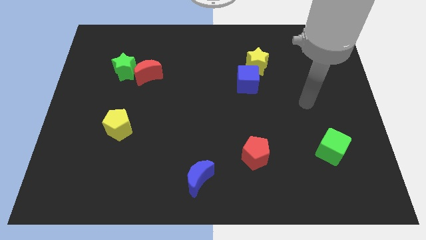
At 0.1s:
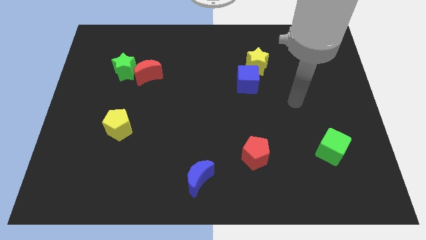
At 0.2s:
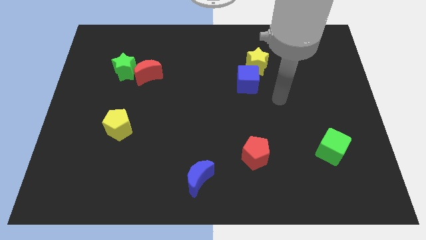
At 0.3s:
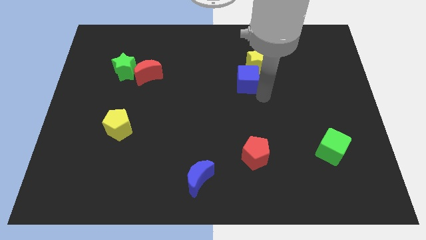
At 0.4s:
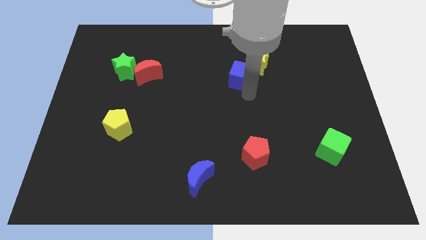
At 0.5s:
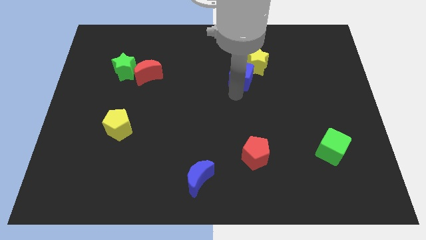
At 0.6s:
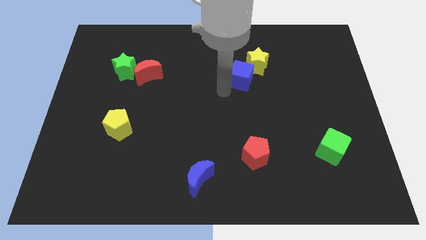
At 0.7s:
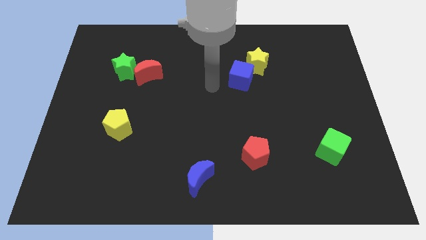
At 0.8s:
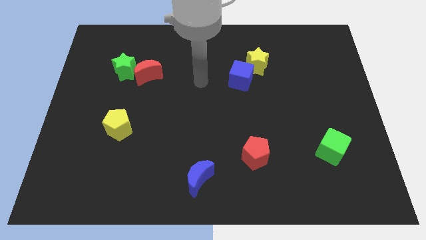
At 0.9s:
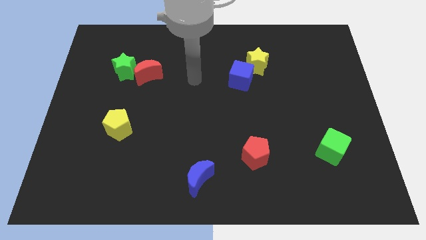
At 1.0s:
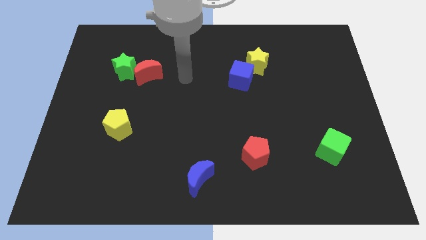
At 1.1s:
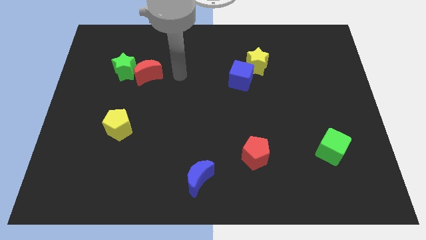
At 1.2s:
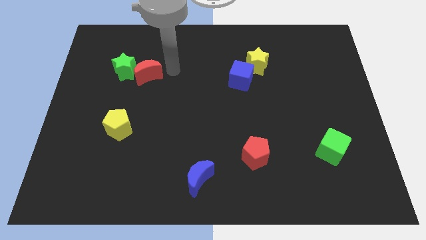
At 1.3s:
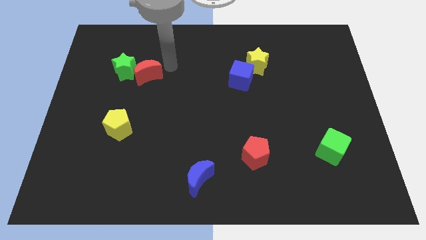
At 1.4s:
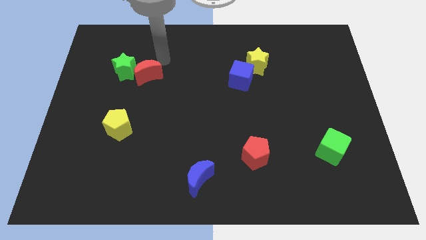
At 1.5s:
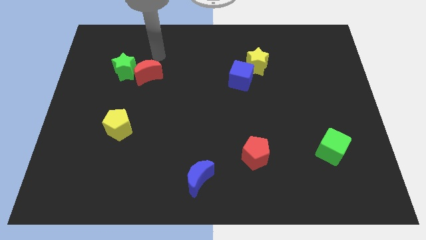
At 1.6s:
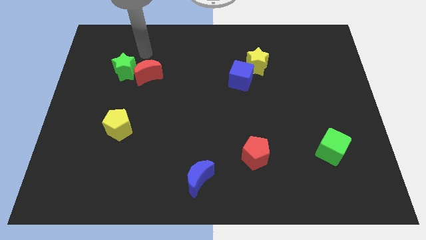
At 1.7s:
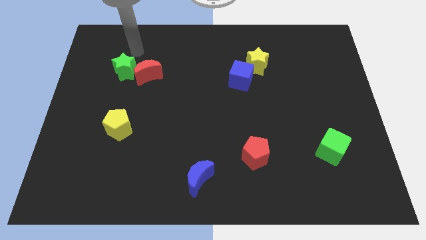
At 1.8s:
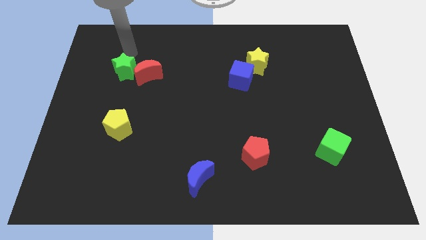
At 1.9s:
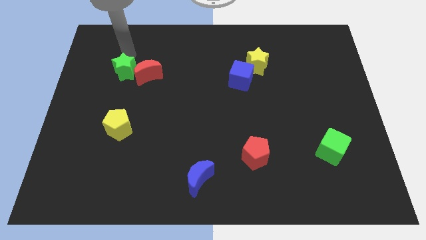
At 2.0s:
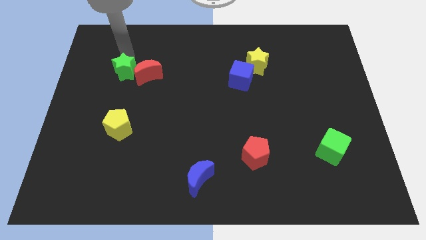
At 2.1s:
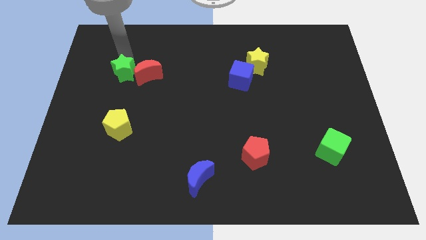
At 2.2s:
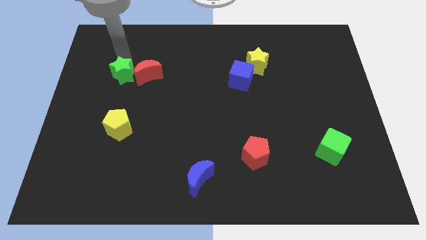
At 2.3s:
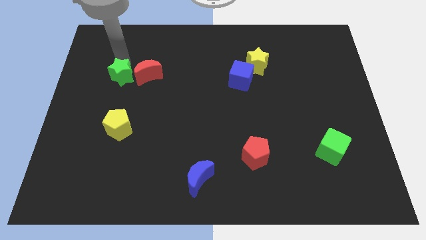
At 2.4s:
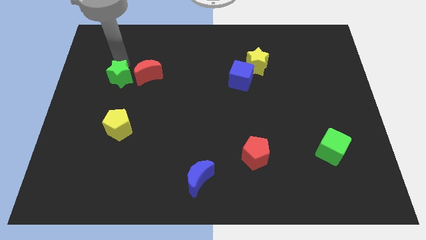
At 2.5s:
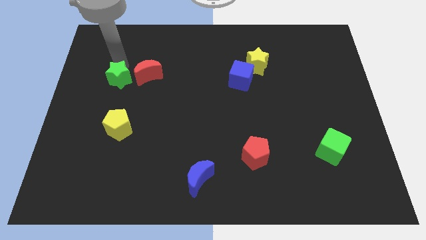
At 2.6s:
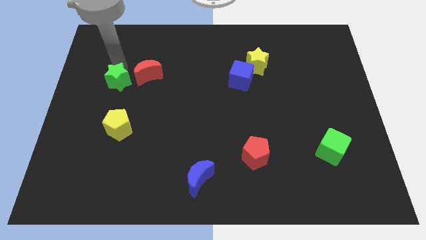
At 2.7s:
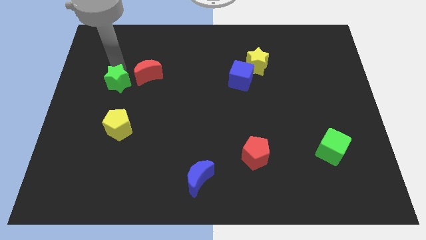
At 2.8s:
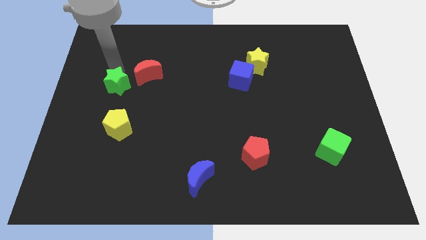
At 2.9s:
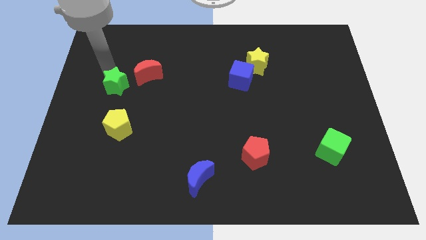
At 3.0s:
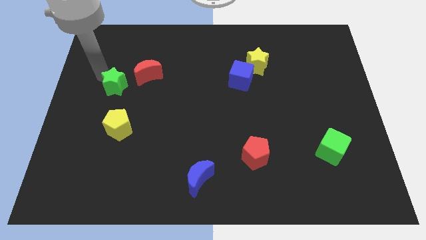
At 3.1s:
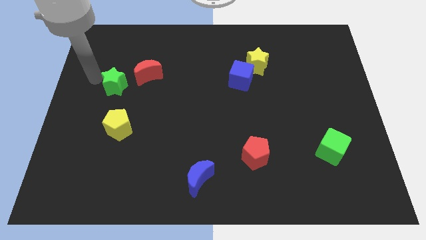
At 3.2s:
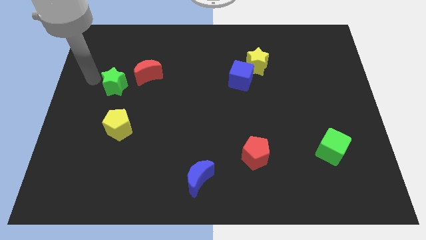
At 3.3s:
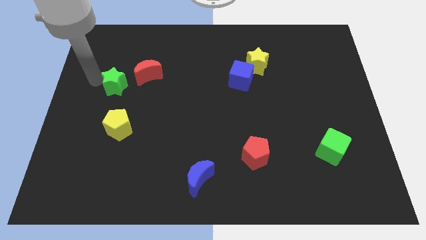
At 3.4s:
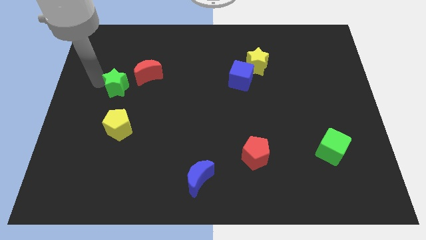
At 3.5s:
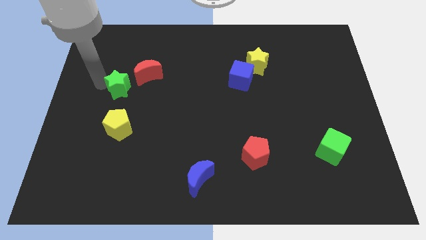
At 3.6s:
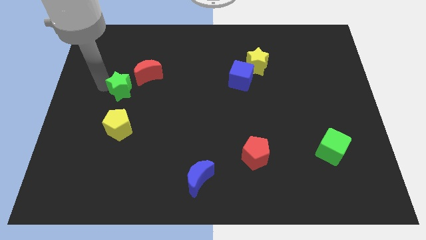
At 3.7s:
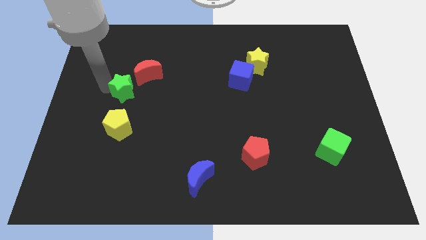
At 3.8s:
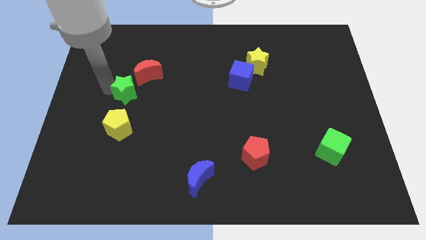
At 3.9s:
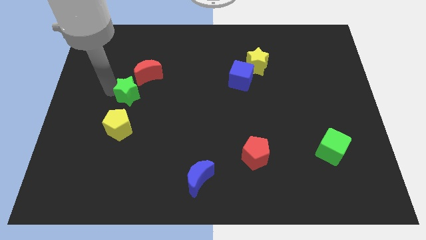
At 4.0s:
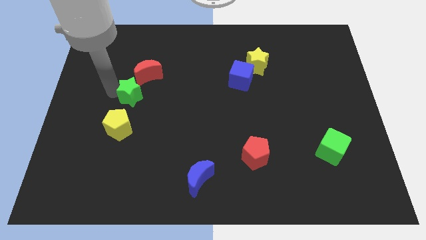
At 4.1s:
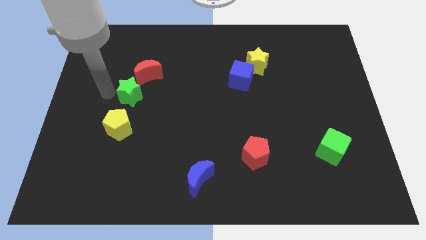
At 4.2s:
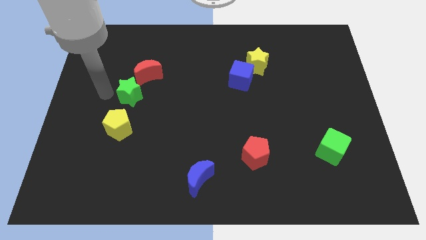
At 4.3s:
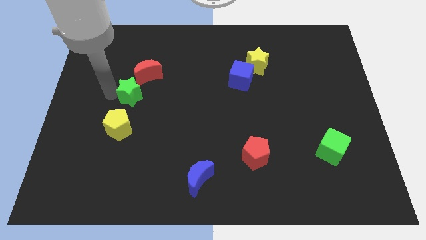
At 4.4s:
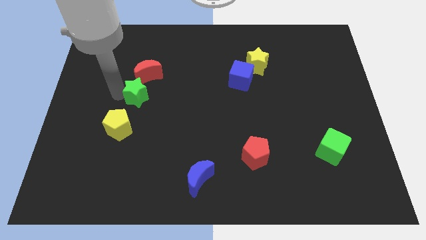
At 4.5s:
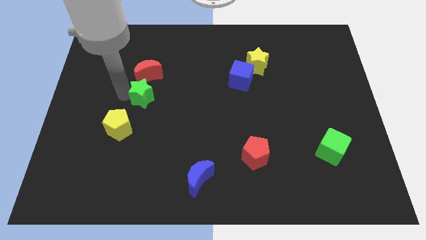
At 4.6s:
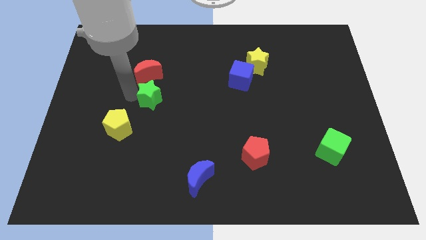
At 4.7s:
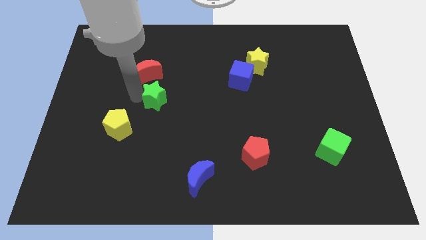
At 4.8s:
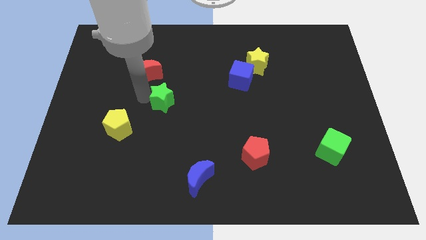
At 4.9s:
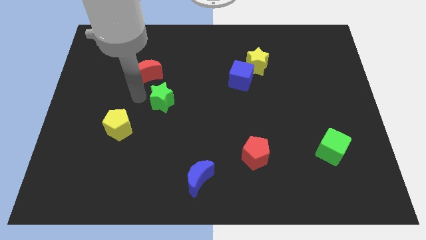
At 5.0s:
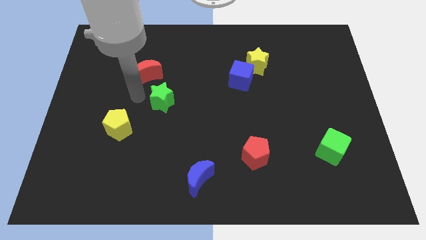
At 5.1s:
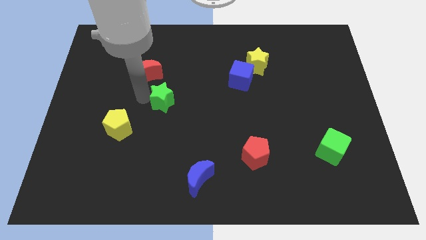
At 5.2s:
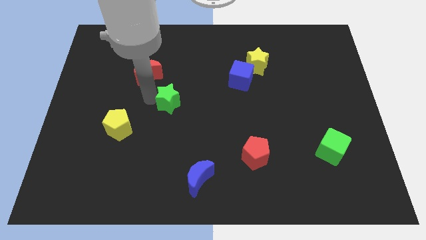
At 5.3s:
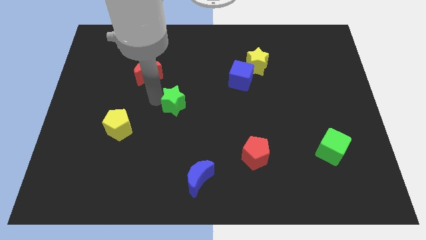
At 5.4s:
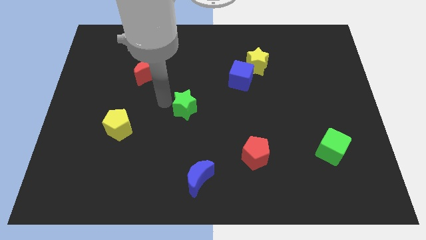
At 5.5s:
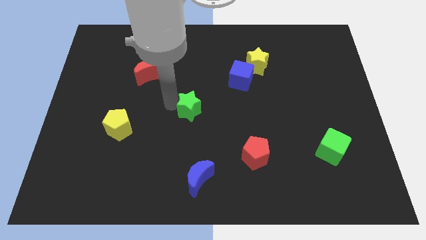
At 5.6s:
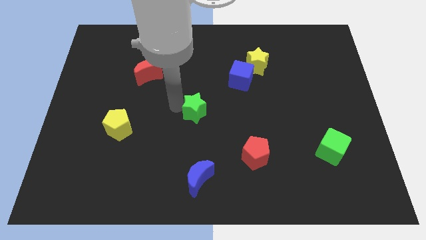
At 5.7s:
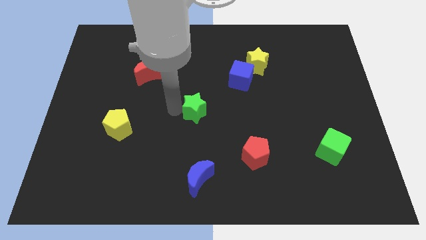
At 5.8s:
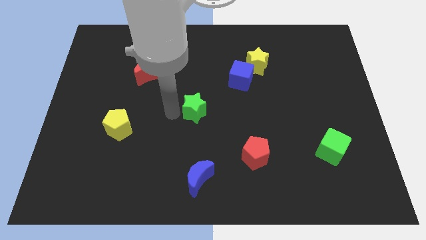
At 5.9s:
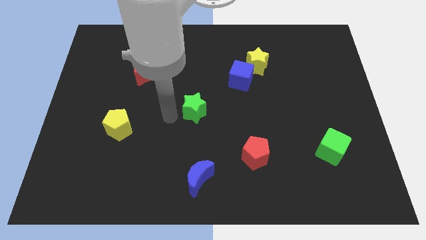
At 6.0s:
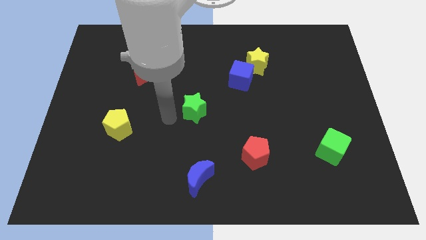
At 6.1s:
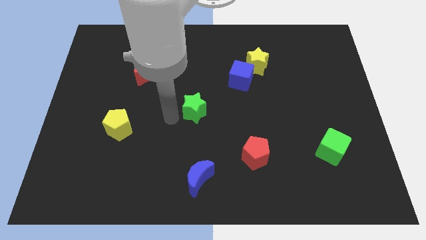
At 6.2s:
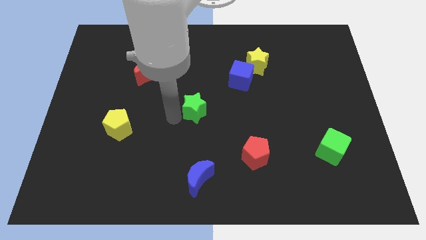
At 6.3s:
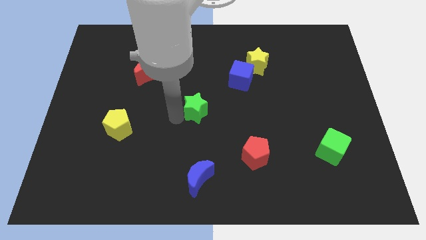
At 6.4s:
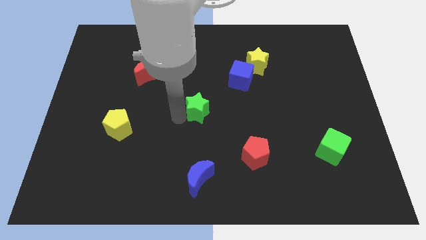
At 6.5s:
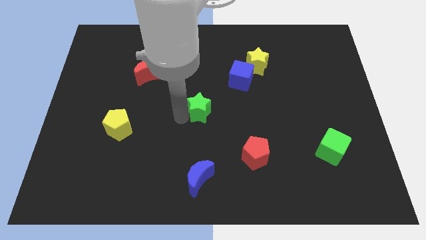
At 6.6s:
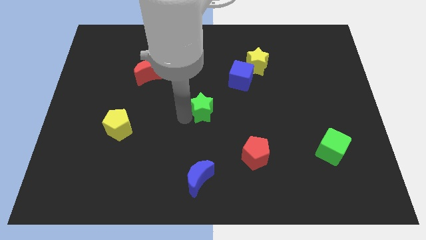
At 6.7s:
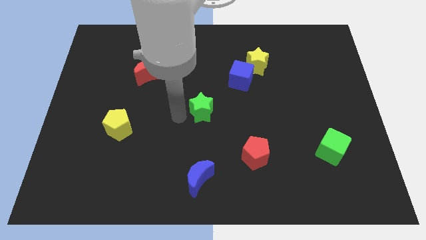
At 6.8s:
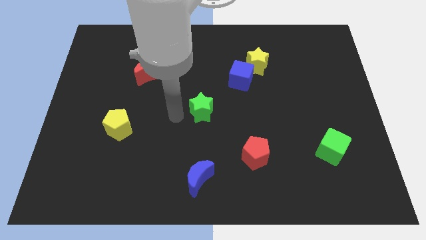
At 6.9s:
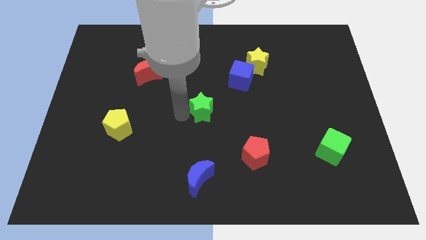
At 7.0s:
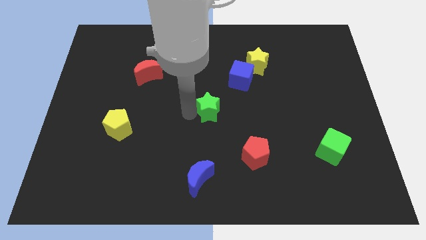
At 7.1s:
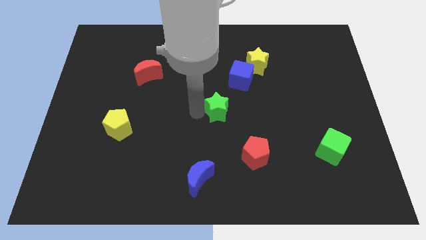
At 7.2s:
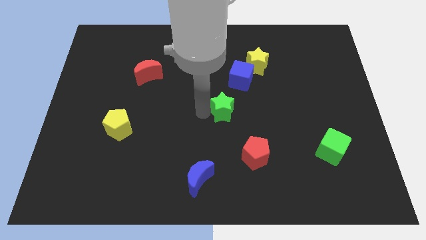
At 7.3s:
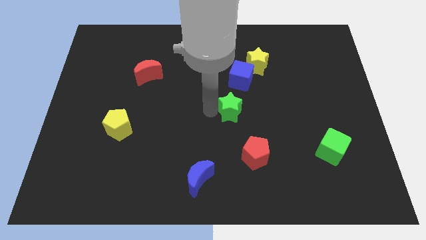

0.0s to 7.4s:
put the green star to the top side of the red pentagon
